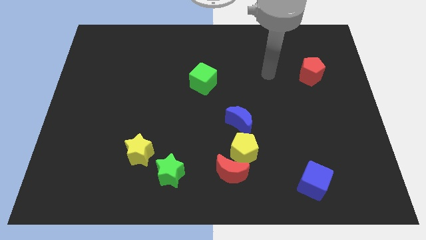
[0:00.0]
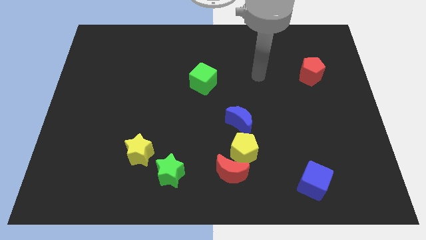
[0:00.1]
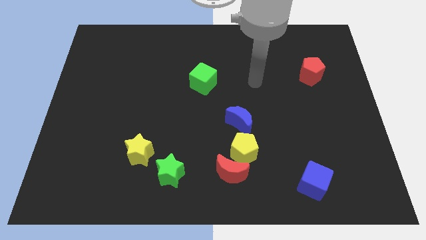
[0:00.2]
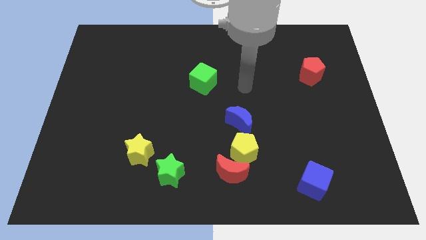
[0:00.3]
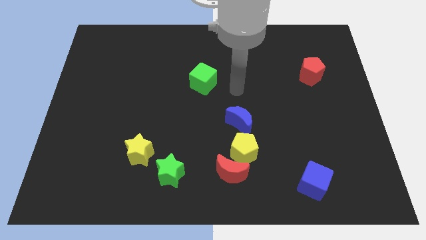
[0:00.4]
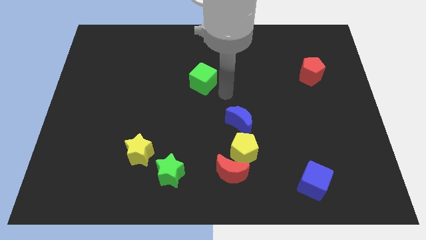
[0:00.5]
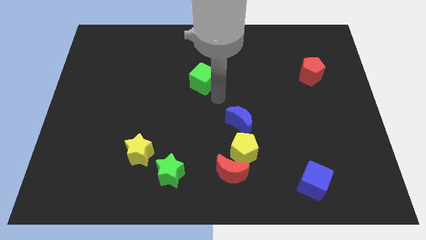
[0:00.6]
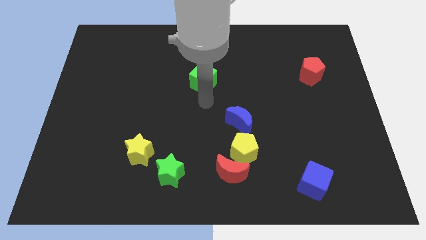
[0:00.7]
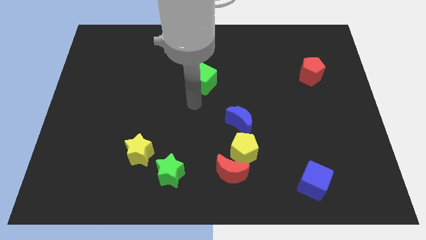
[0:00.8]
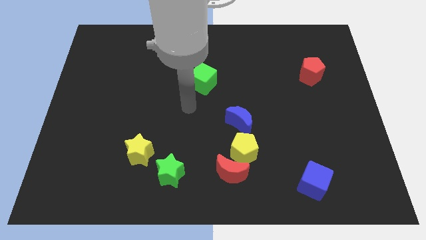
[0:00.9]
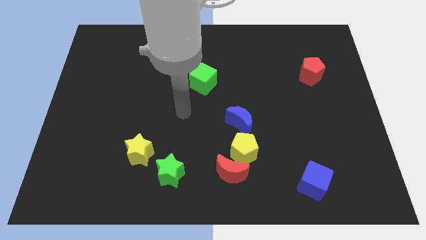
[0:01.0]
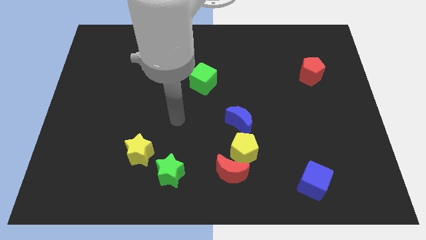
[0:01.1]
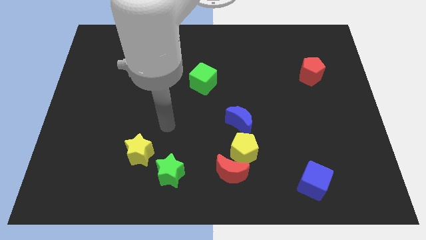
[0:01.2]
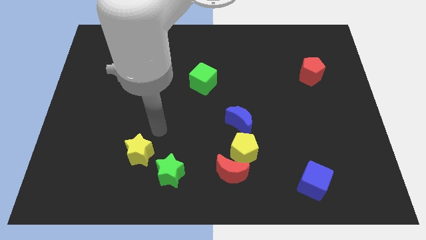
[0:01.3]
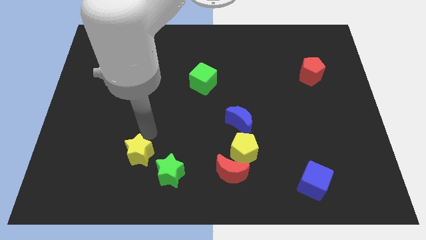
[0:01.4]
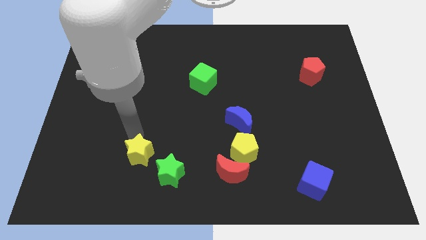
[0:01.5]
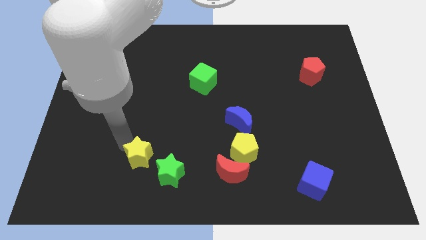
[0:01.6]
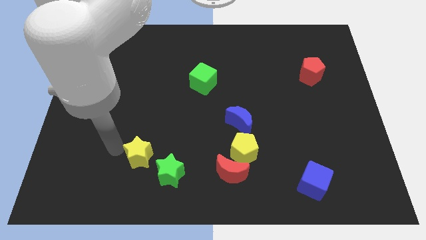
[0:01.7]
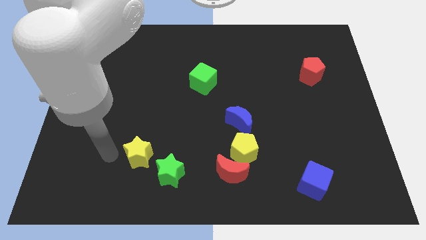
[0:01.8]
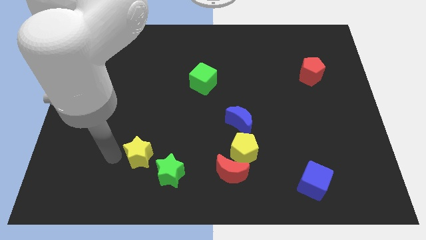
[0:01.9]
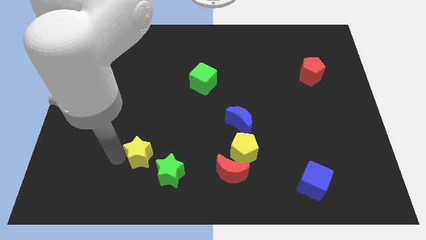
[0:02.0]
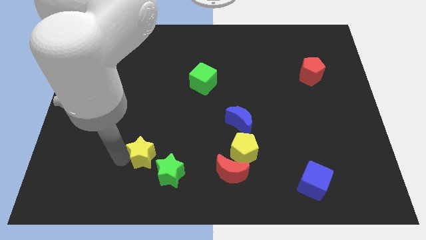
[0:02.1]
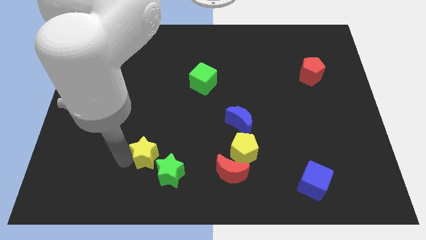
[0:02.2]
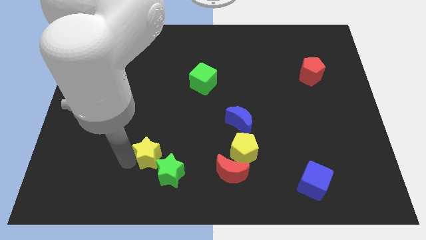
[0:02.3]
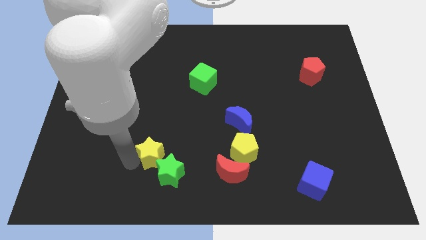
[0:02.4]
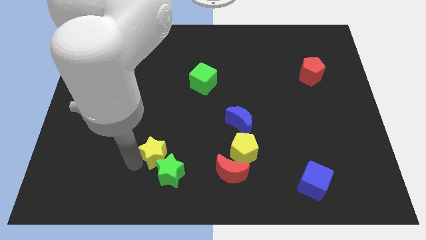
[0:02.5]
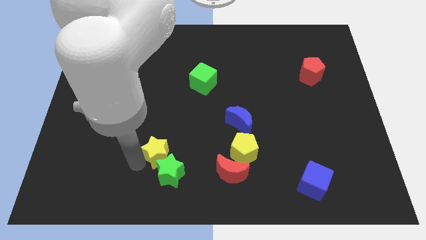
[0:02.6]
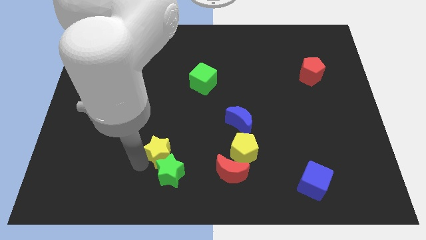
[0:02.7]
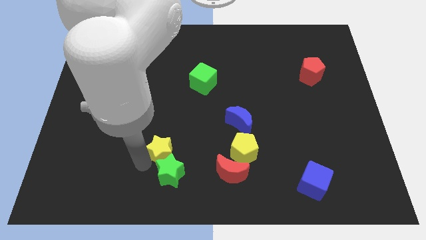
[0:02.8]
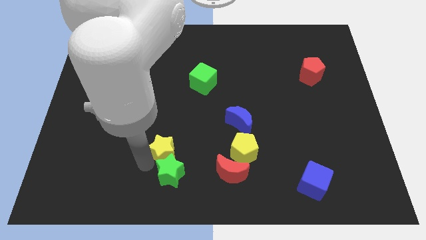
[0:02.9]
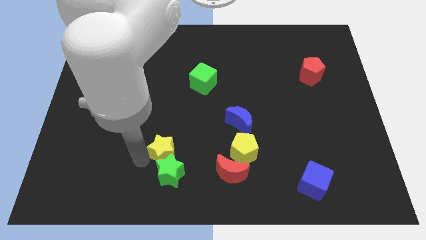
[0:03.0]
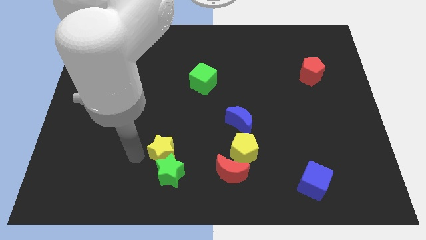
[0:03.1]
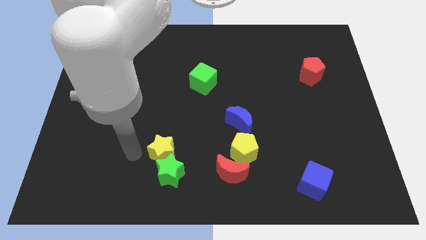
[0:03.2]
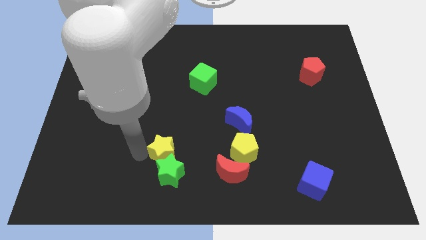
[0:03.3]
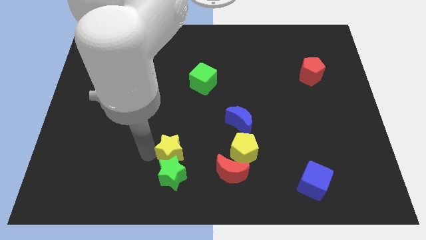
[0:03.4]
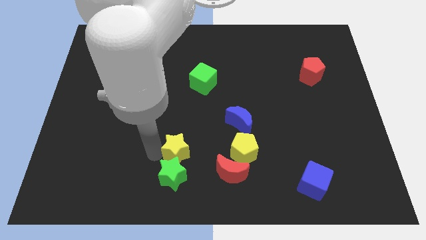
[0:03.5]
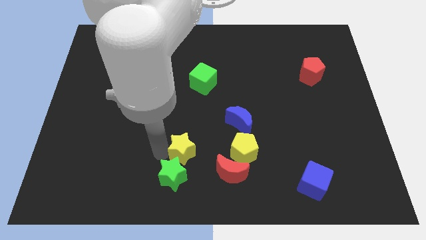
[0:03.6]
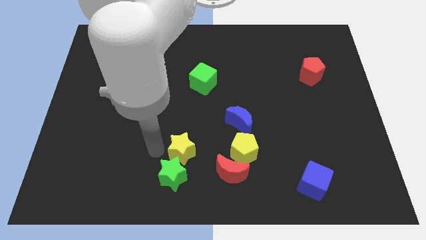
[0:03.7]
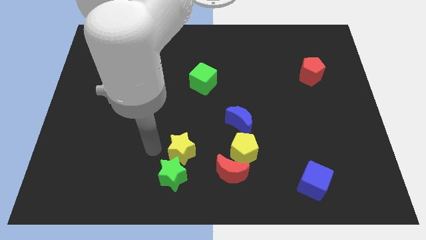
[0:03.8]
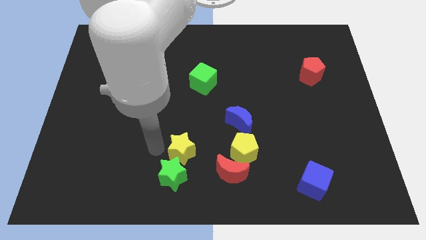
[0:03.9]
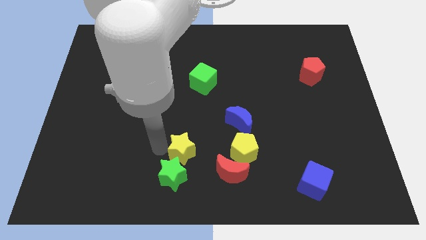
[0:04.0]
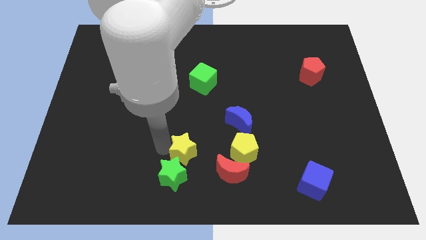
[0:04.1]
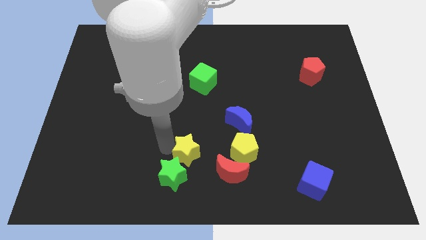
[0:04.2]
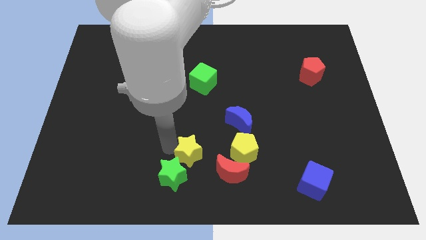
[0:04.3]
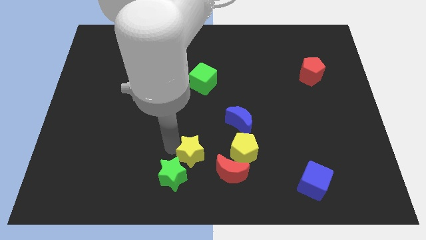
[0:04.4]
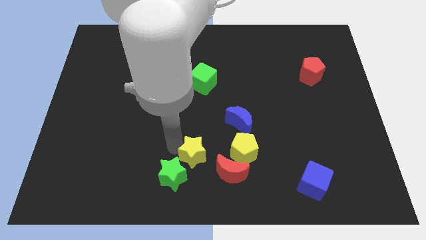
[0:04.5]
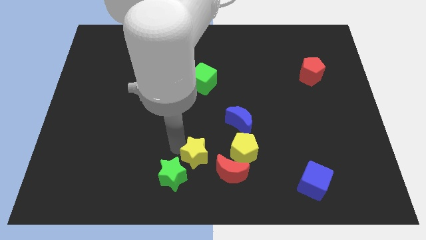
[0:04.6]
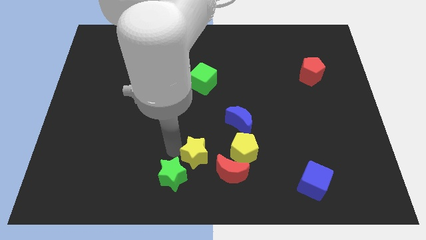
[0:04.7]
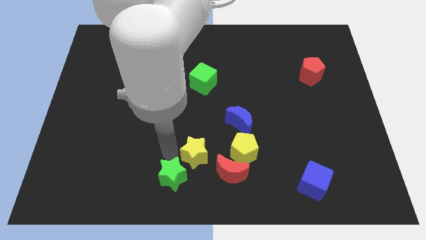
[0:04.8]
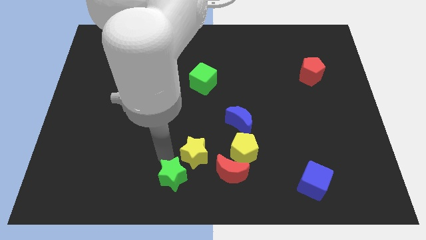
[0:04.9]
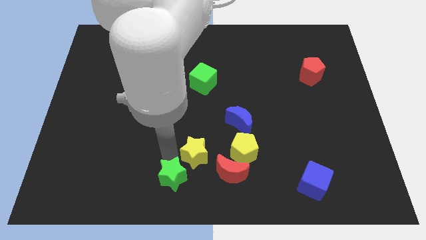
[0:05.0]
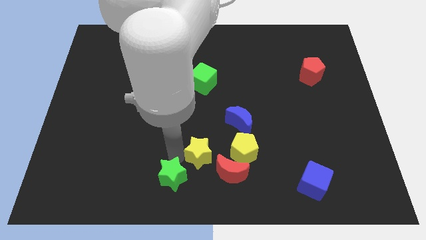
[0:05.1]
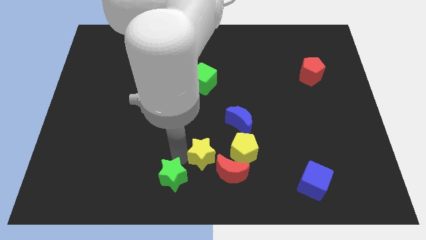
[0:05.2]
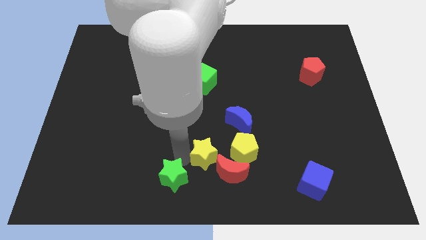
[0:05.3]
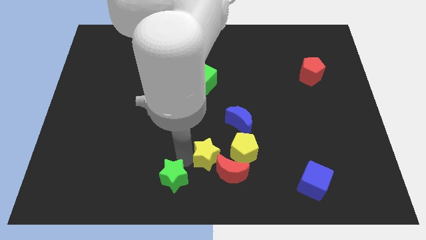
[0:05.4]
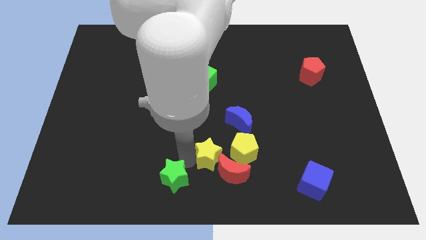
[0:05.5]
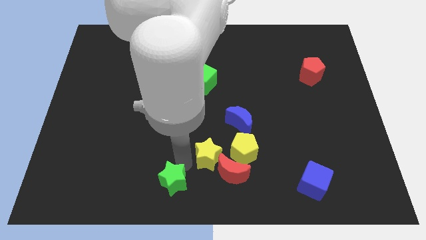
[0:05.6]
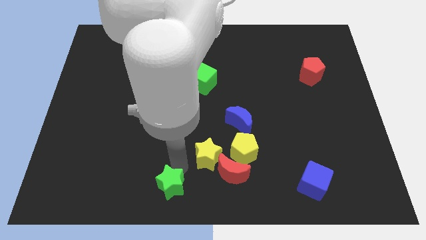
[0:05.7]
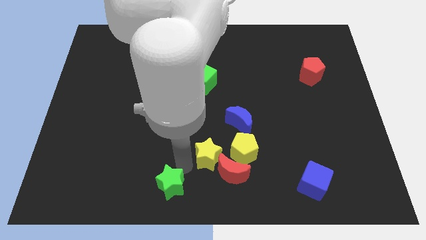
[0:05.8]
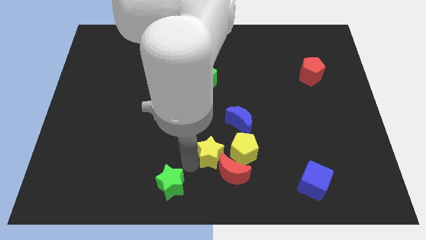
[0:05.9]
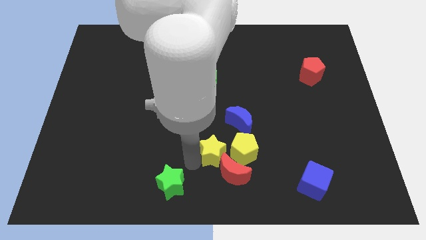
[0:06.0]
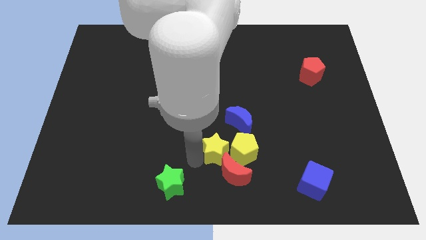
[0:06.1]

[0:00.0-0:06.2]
put the yellow star to the yellow pentagon

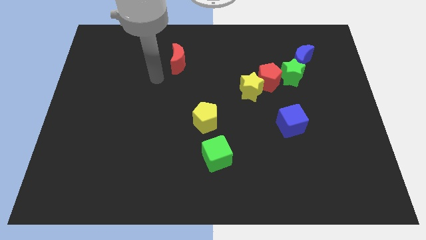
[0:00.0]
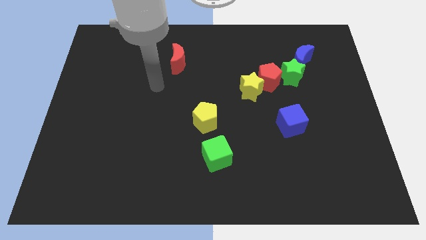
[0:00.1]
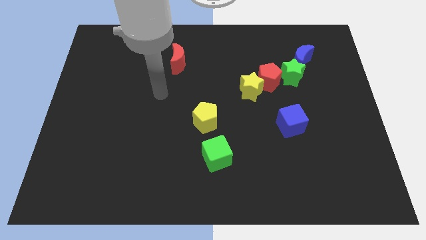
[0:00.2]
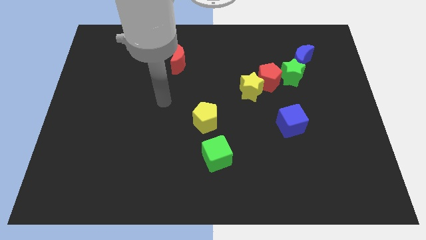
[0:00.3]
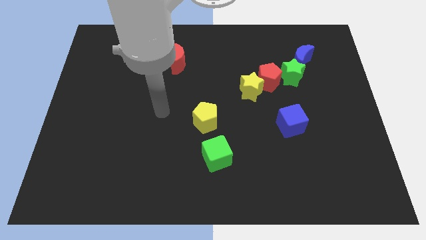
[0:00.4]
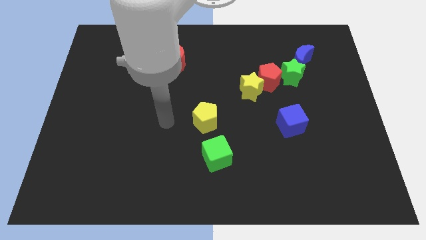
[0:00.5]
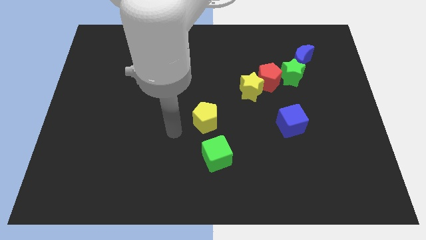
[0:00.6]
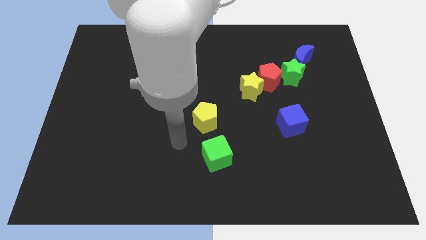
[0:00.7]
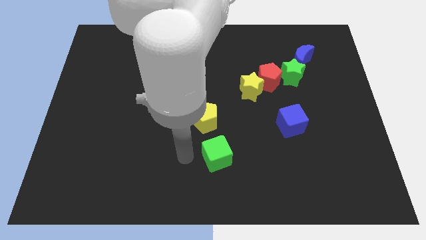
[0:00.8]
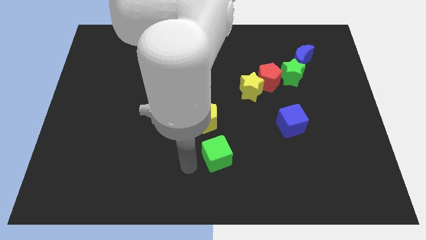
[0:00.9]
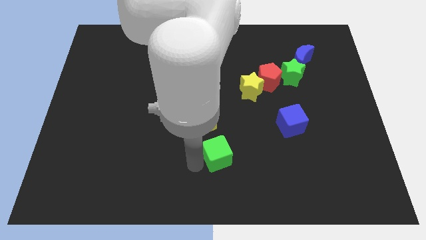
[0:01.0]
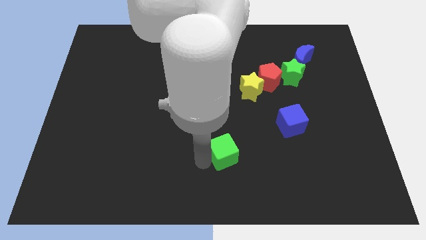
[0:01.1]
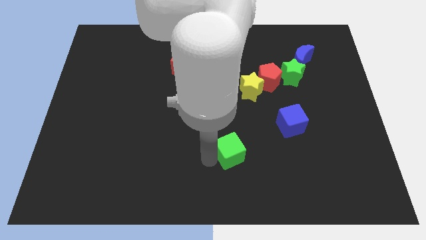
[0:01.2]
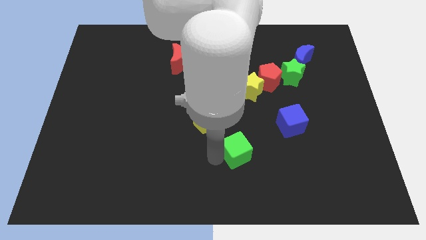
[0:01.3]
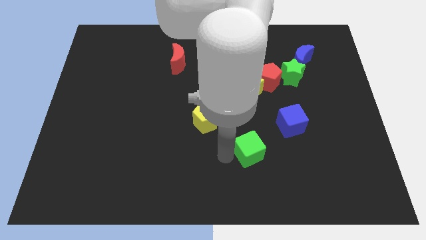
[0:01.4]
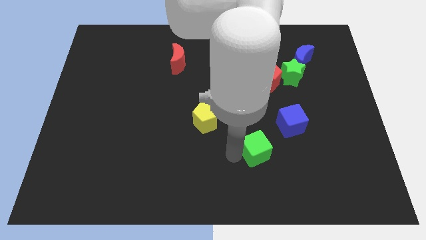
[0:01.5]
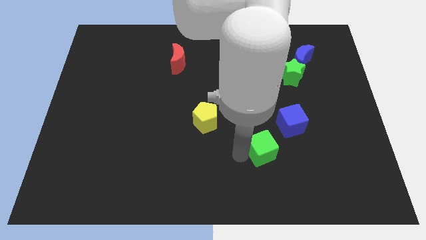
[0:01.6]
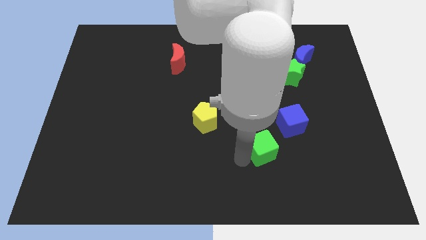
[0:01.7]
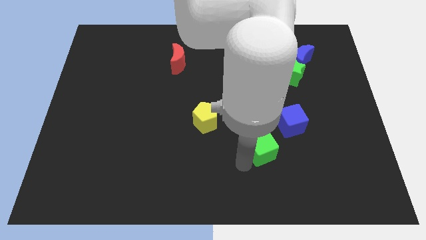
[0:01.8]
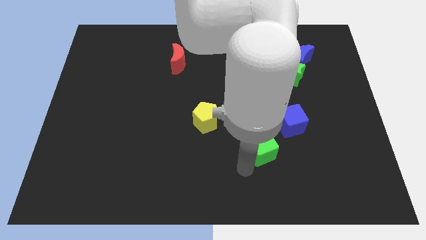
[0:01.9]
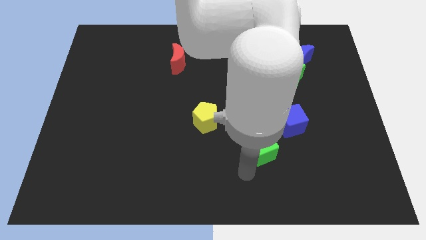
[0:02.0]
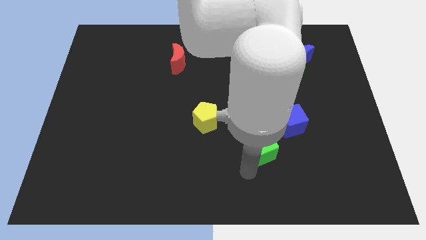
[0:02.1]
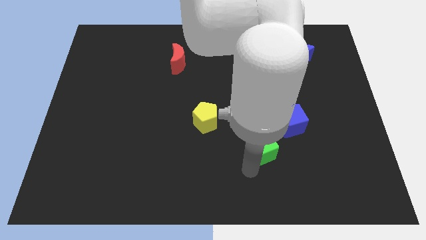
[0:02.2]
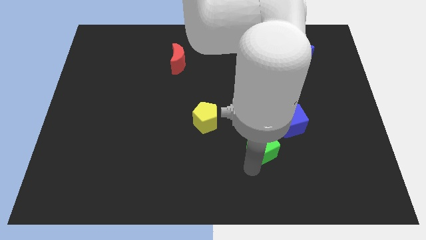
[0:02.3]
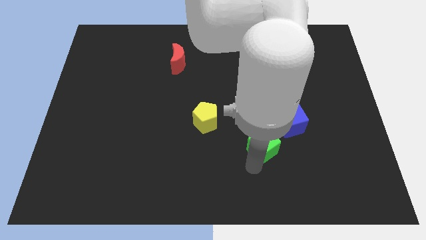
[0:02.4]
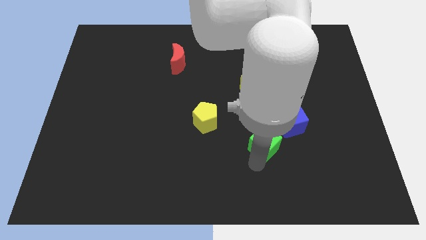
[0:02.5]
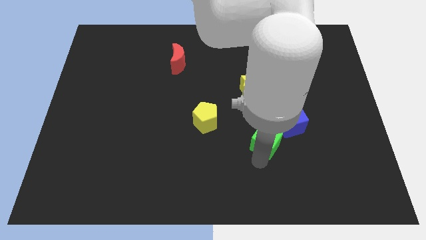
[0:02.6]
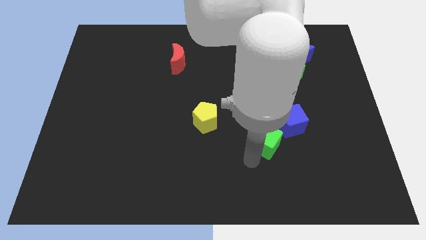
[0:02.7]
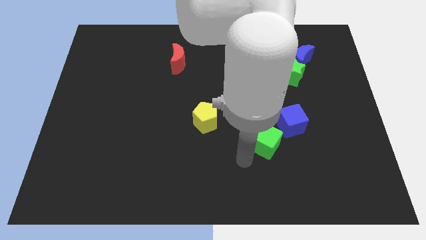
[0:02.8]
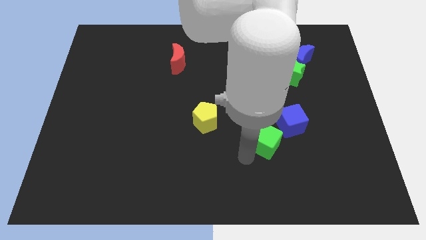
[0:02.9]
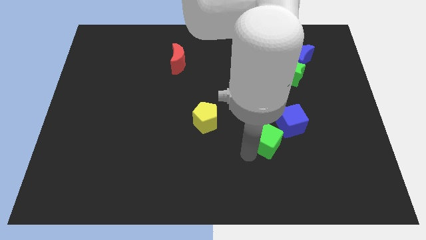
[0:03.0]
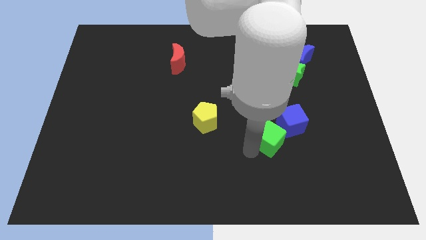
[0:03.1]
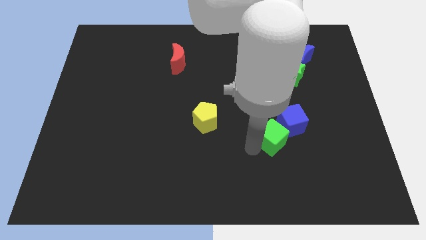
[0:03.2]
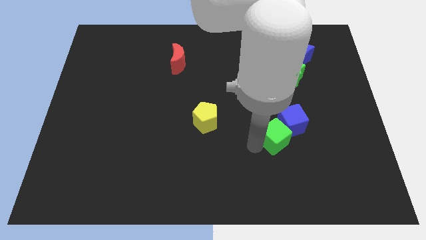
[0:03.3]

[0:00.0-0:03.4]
slide the green cube close to the blue cube
